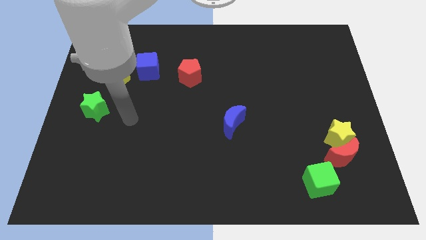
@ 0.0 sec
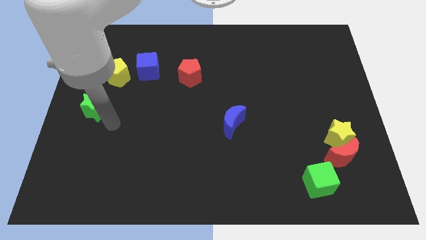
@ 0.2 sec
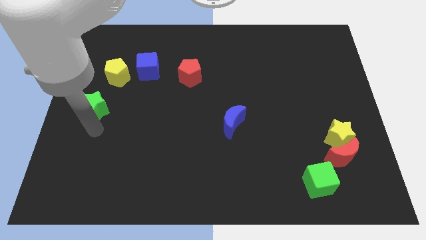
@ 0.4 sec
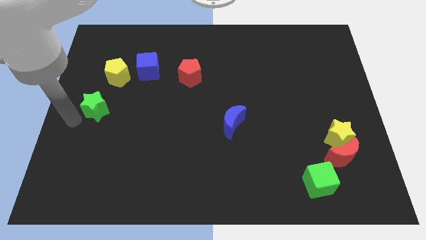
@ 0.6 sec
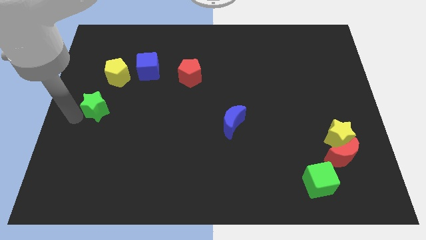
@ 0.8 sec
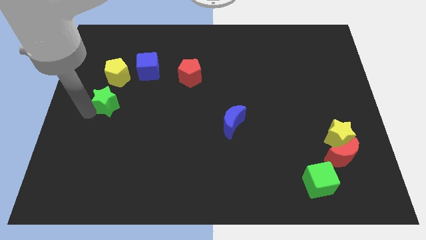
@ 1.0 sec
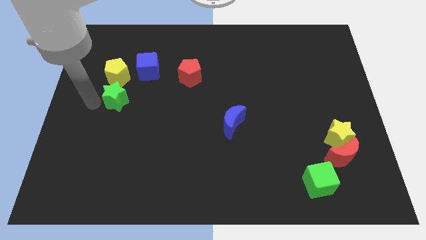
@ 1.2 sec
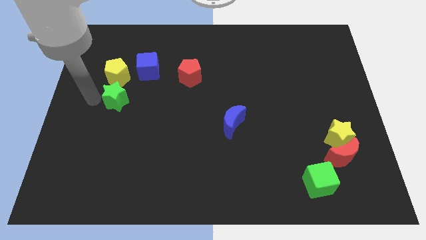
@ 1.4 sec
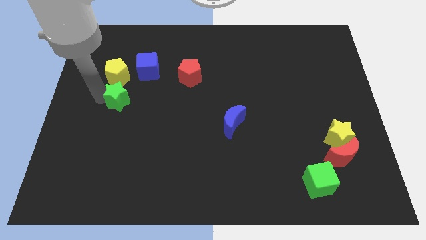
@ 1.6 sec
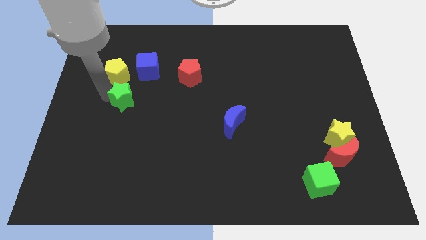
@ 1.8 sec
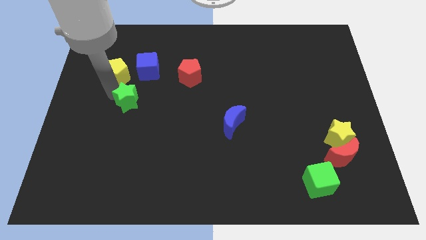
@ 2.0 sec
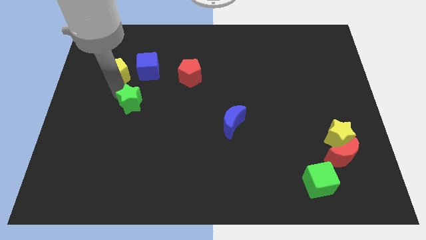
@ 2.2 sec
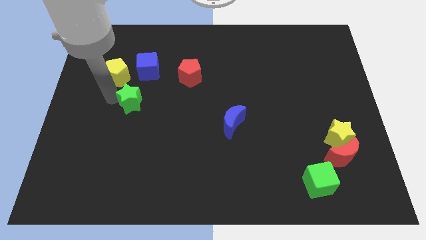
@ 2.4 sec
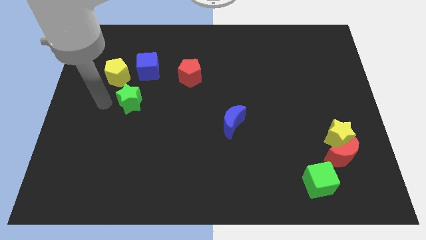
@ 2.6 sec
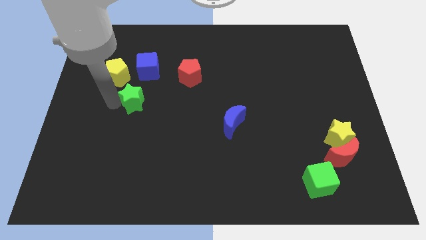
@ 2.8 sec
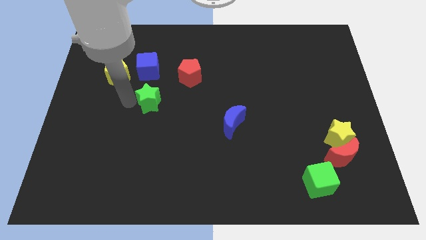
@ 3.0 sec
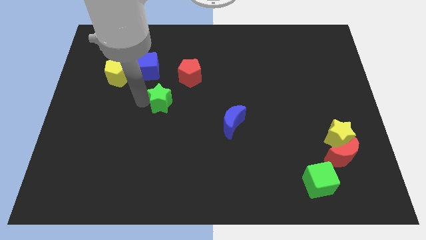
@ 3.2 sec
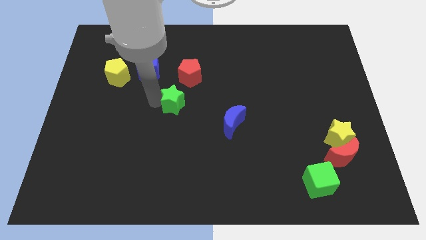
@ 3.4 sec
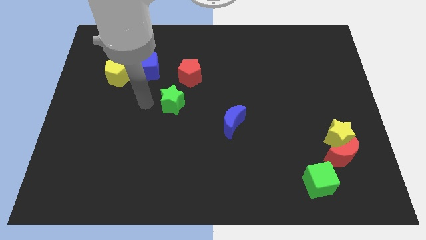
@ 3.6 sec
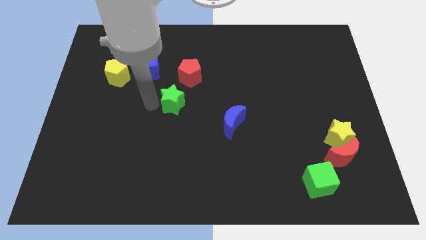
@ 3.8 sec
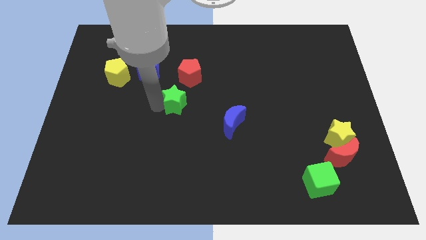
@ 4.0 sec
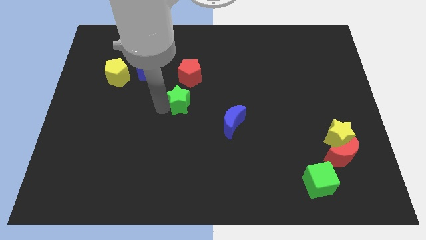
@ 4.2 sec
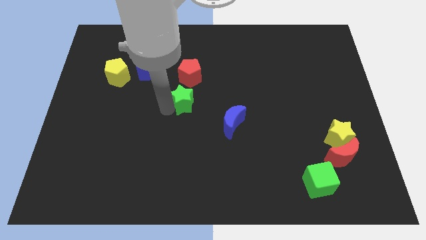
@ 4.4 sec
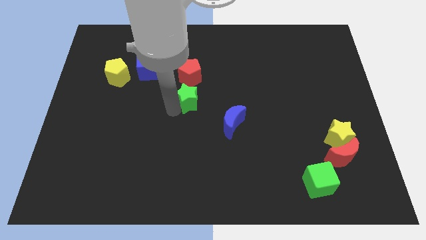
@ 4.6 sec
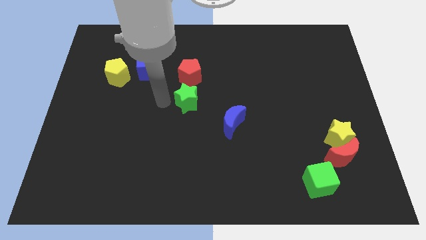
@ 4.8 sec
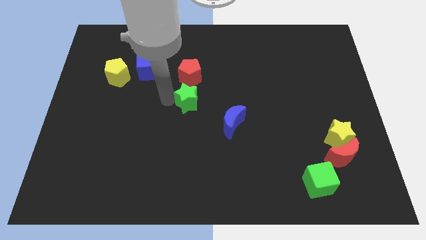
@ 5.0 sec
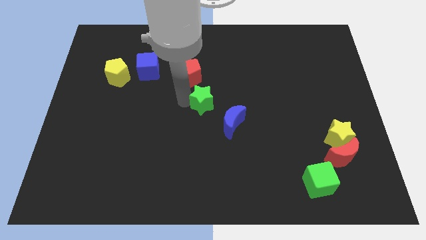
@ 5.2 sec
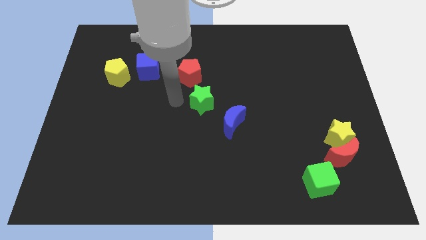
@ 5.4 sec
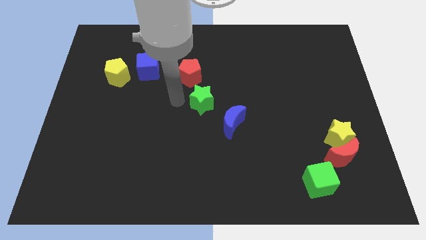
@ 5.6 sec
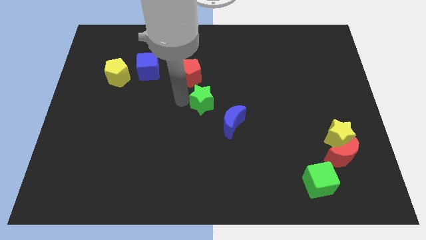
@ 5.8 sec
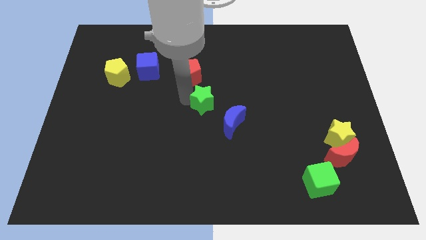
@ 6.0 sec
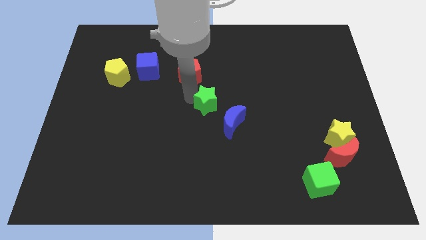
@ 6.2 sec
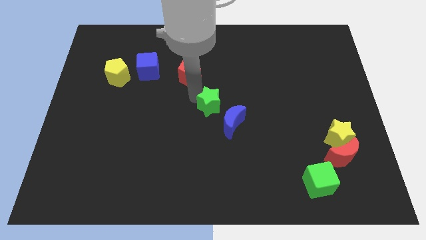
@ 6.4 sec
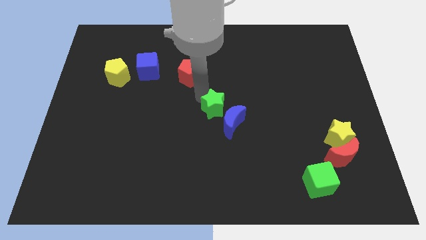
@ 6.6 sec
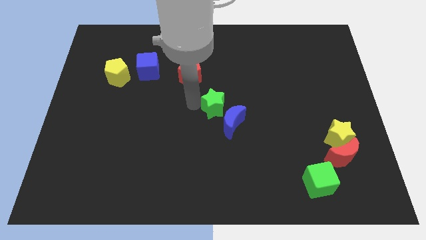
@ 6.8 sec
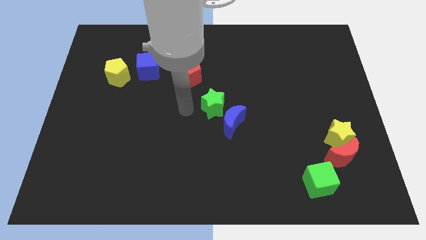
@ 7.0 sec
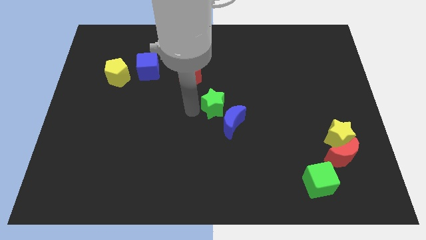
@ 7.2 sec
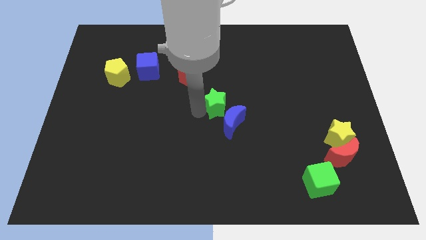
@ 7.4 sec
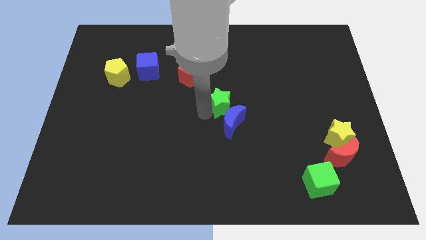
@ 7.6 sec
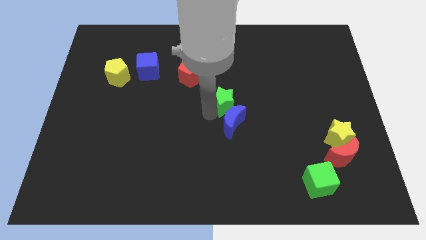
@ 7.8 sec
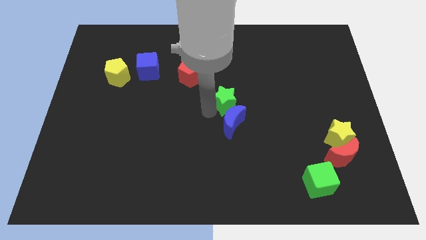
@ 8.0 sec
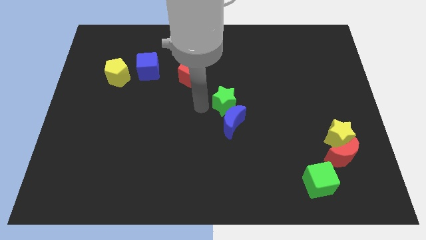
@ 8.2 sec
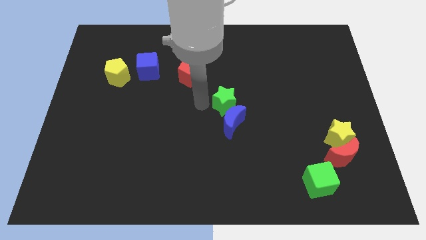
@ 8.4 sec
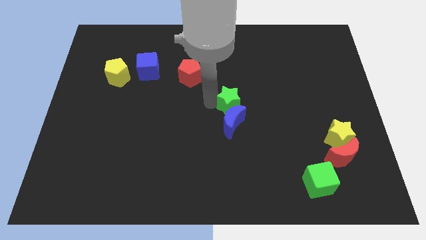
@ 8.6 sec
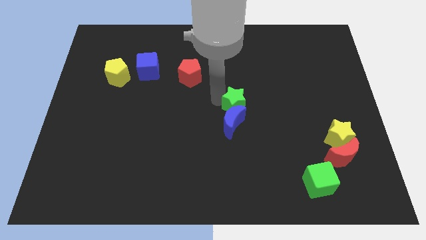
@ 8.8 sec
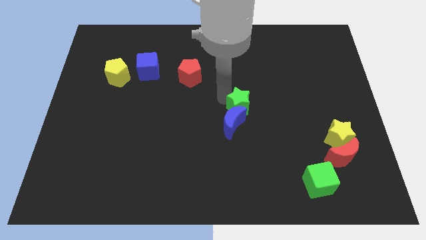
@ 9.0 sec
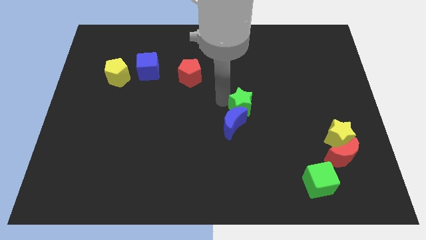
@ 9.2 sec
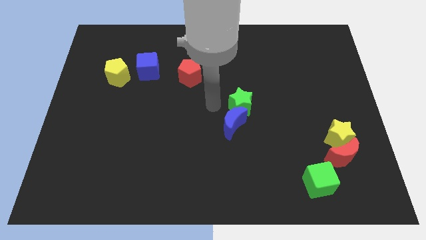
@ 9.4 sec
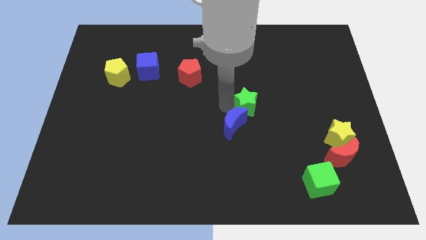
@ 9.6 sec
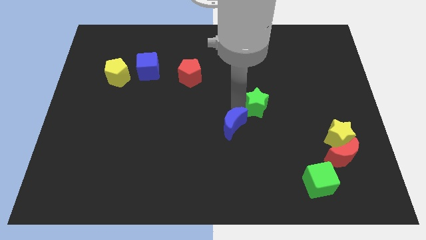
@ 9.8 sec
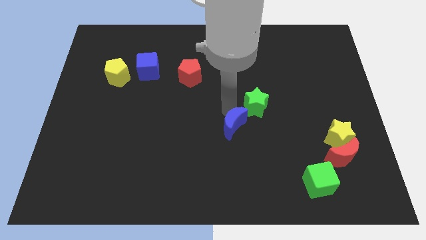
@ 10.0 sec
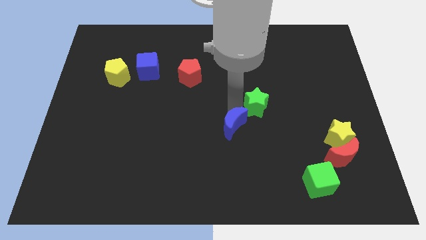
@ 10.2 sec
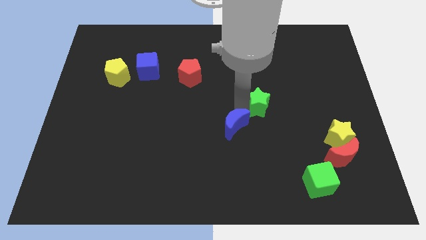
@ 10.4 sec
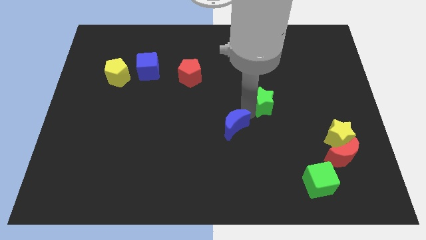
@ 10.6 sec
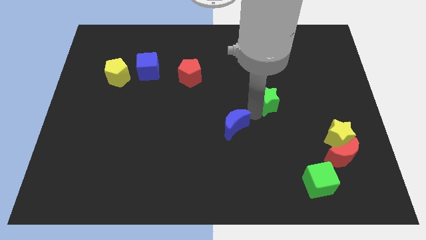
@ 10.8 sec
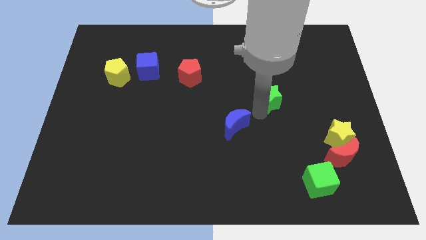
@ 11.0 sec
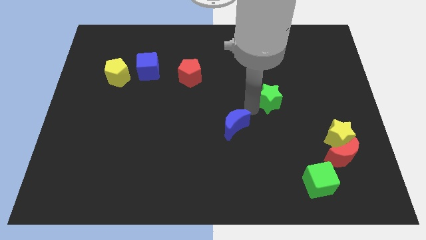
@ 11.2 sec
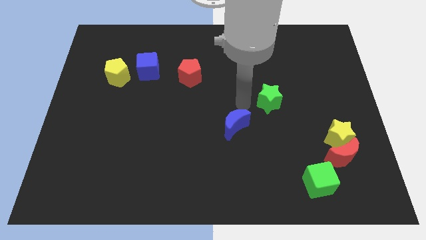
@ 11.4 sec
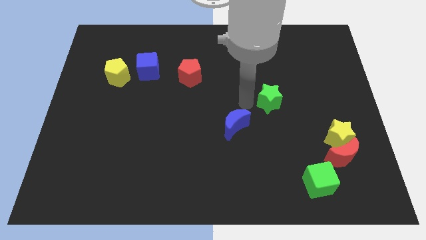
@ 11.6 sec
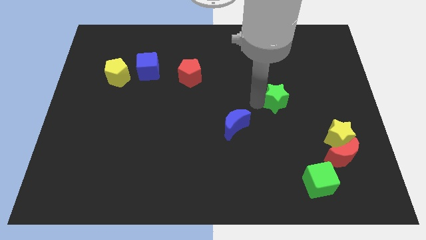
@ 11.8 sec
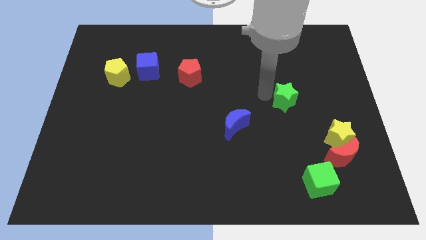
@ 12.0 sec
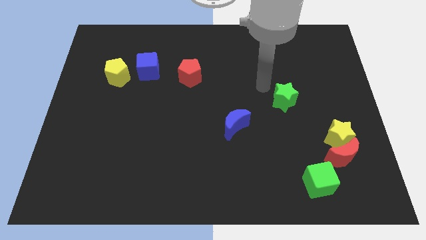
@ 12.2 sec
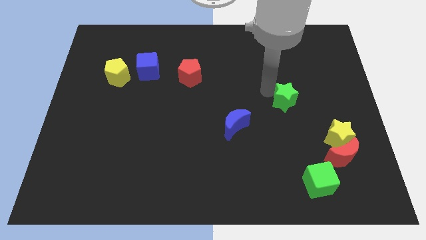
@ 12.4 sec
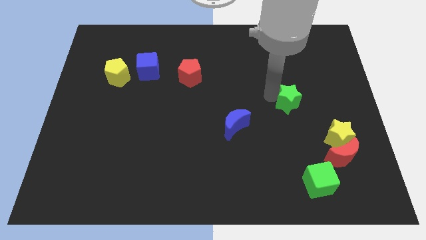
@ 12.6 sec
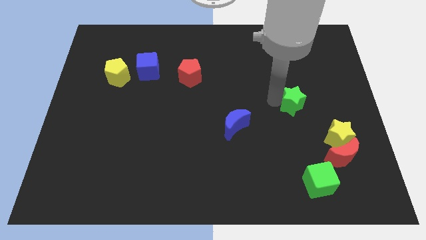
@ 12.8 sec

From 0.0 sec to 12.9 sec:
put the green star diagonally up and to the left of the yellow star

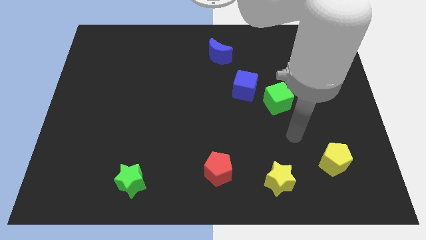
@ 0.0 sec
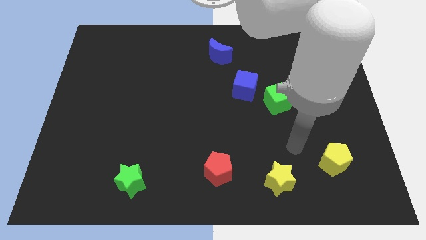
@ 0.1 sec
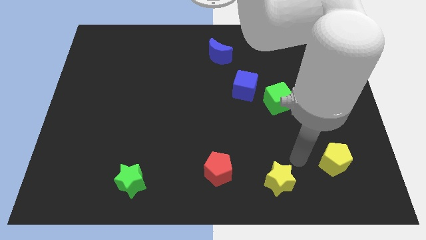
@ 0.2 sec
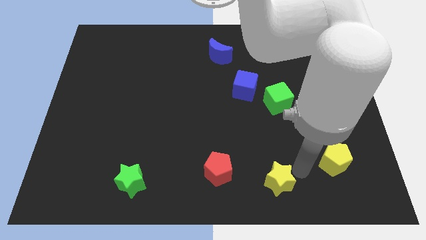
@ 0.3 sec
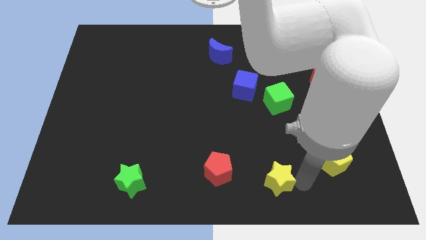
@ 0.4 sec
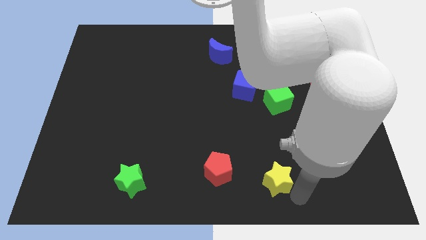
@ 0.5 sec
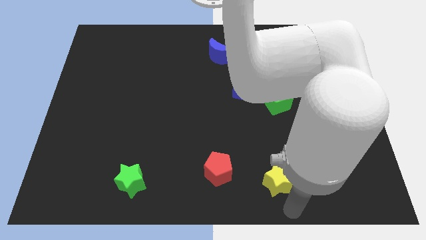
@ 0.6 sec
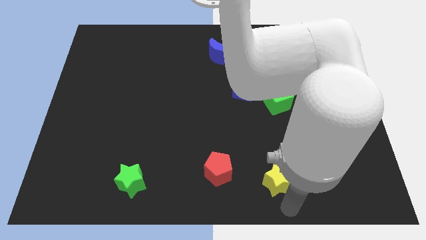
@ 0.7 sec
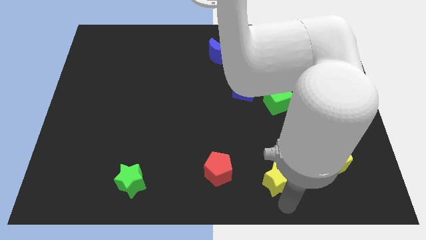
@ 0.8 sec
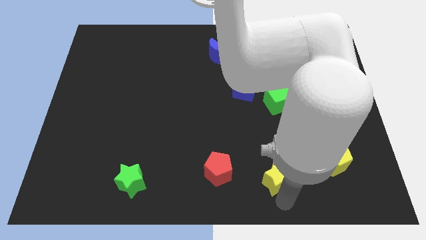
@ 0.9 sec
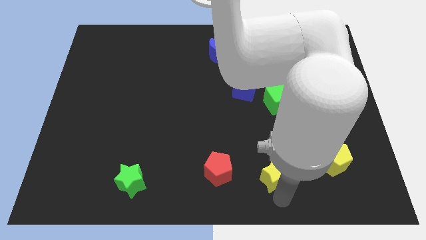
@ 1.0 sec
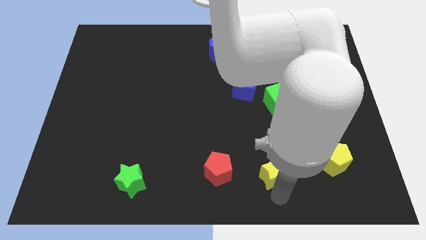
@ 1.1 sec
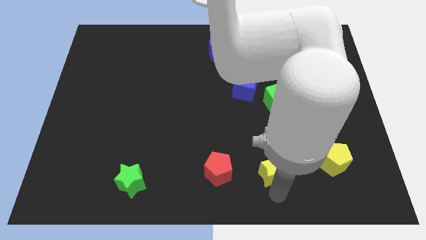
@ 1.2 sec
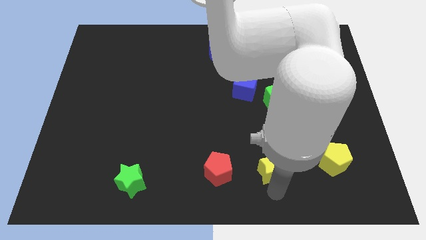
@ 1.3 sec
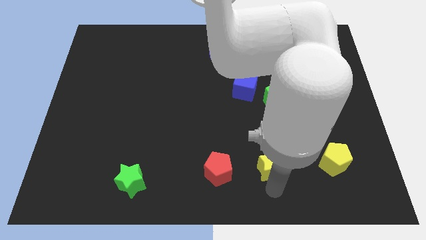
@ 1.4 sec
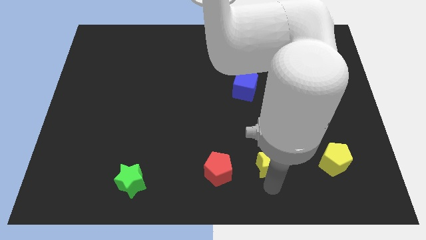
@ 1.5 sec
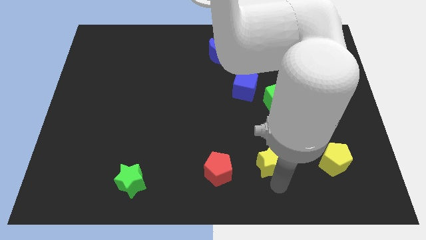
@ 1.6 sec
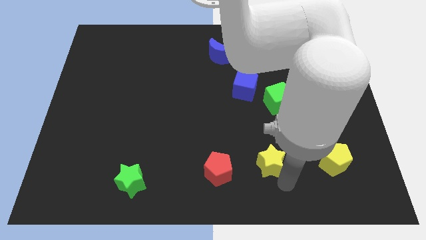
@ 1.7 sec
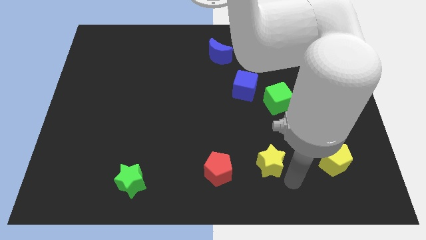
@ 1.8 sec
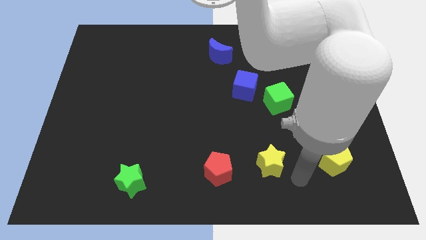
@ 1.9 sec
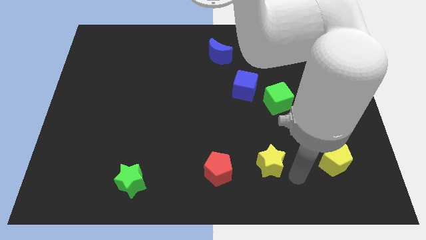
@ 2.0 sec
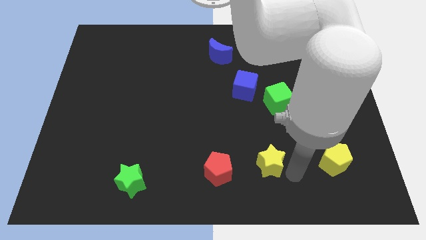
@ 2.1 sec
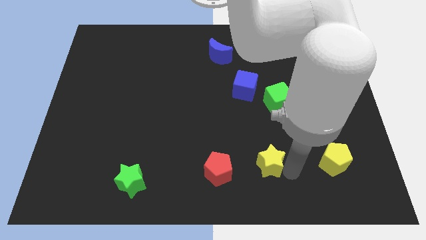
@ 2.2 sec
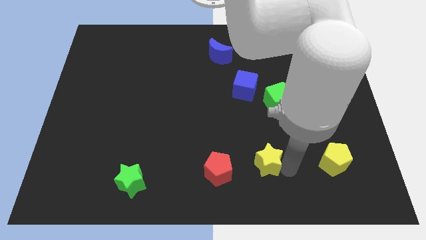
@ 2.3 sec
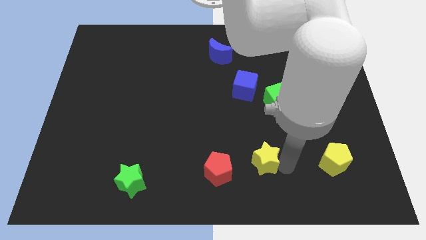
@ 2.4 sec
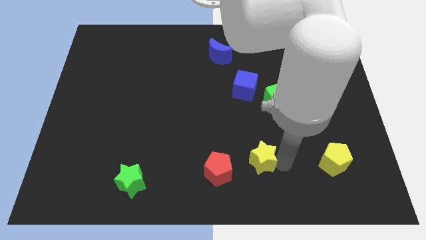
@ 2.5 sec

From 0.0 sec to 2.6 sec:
move the yellow star diagonally up and to the right of the red pentagon
